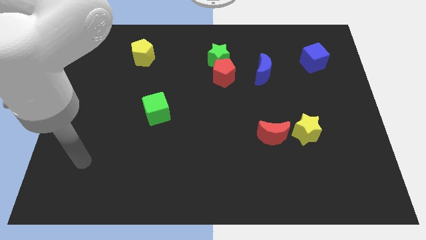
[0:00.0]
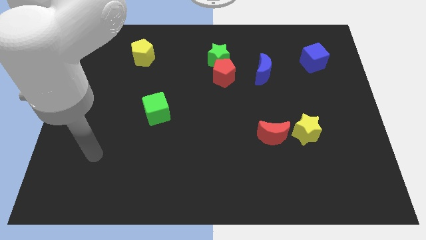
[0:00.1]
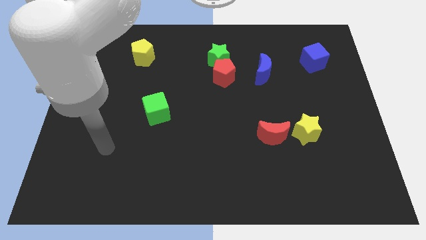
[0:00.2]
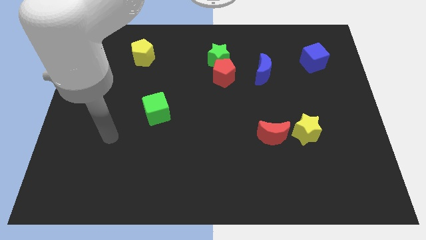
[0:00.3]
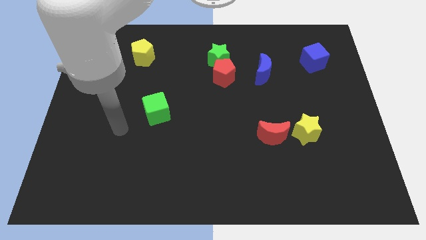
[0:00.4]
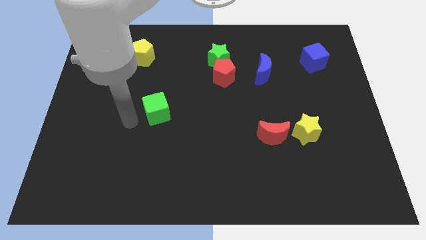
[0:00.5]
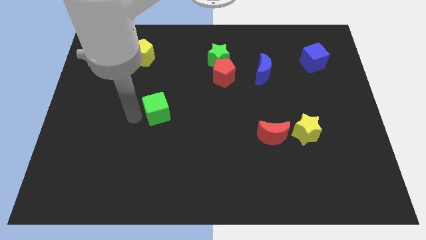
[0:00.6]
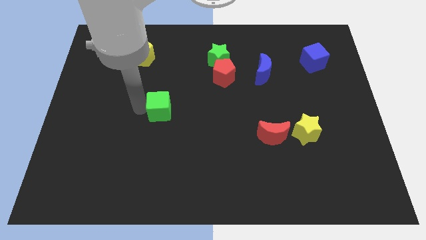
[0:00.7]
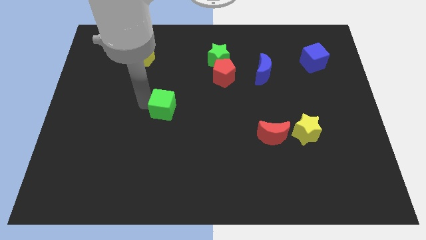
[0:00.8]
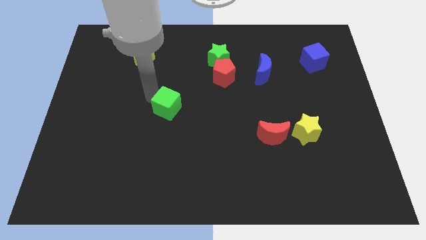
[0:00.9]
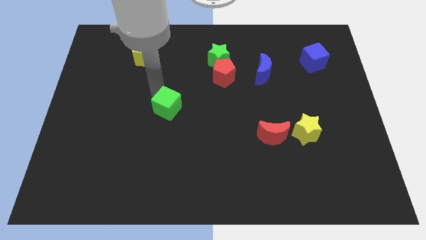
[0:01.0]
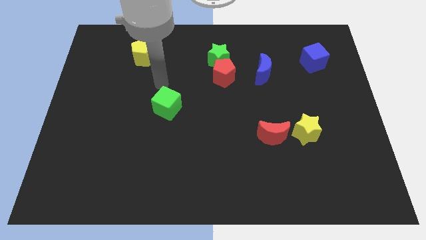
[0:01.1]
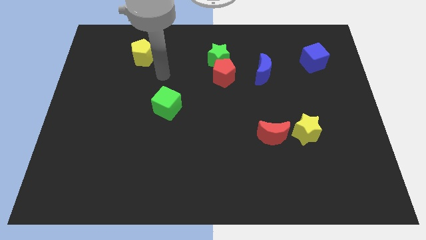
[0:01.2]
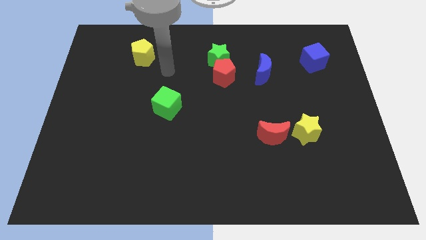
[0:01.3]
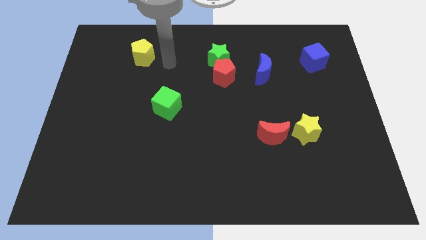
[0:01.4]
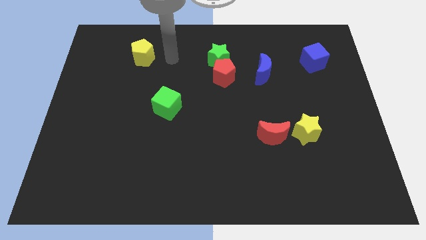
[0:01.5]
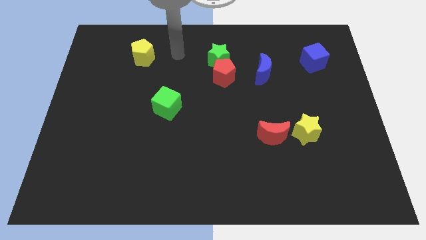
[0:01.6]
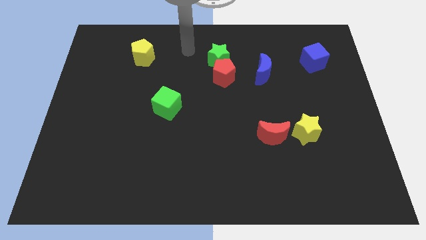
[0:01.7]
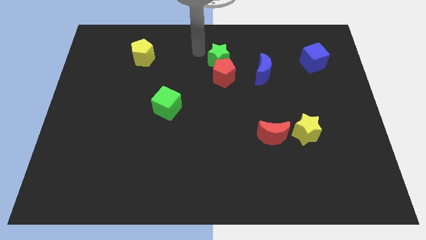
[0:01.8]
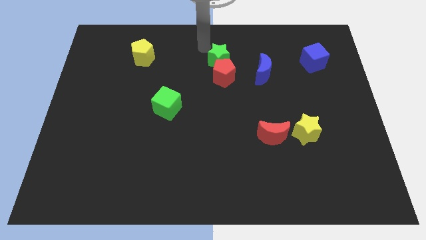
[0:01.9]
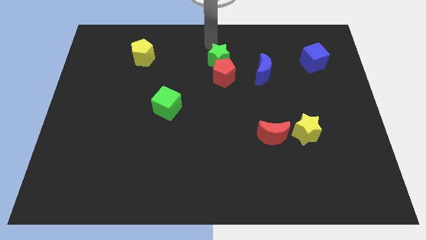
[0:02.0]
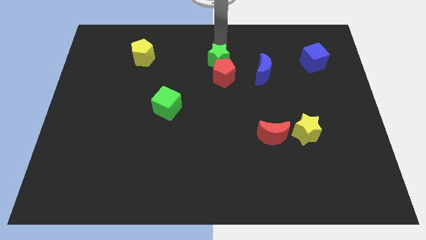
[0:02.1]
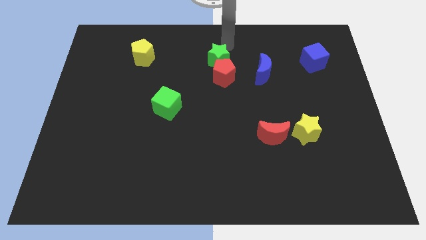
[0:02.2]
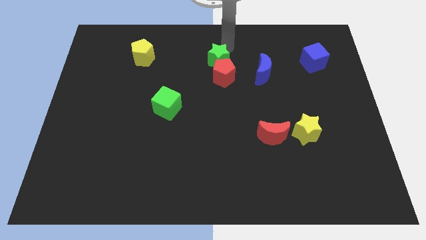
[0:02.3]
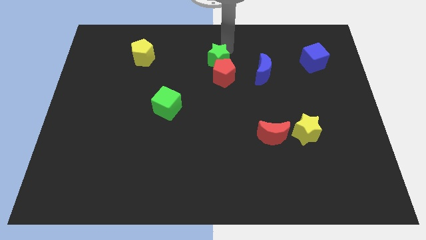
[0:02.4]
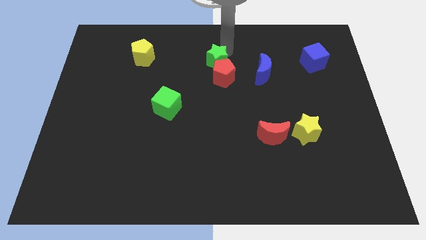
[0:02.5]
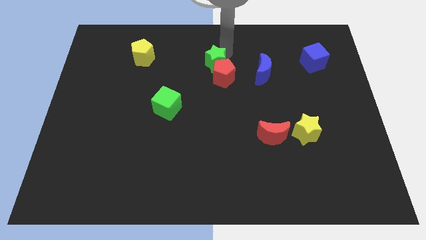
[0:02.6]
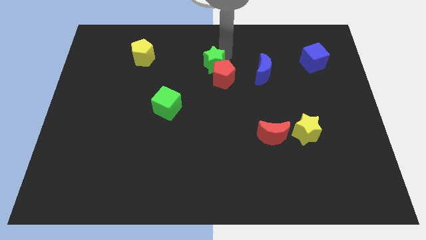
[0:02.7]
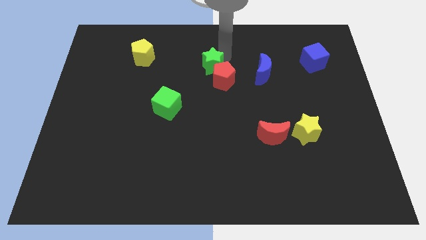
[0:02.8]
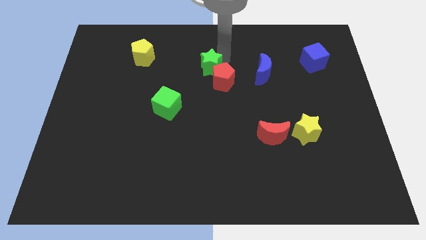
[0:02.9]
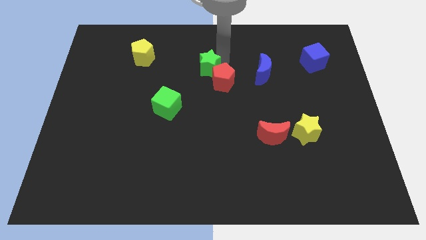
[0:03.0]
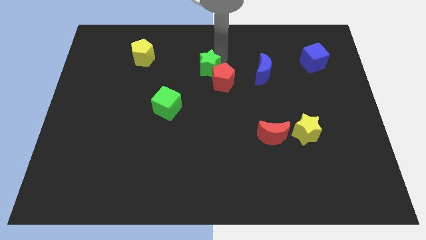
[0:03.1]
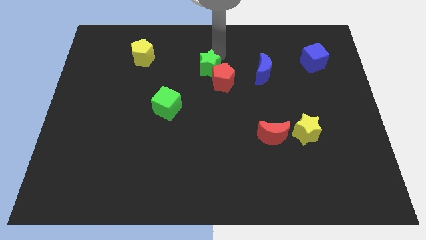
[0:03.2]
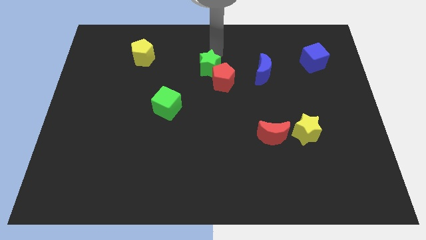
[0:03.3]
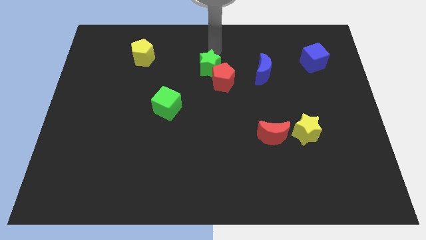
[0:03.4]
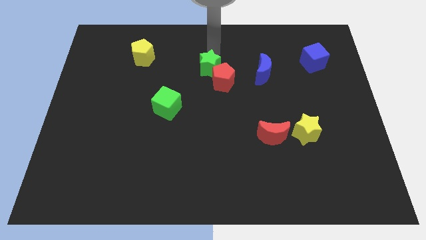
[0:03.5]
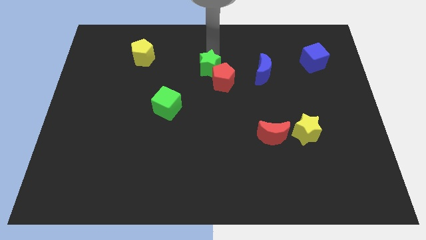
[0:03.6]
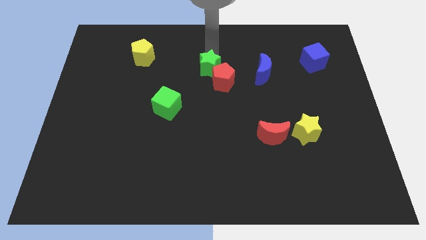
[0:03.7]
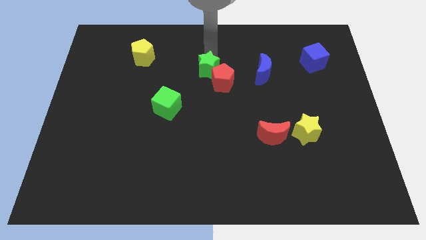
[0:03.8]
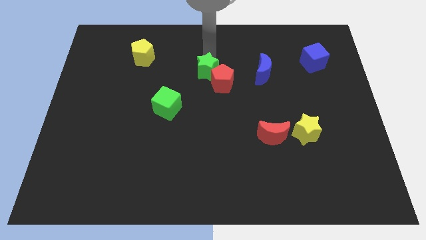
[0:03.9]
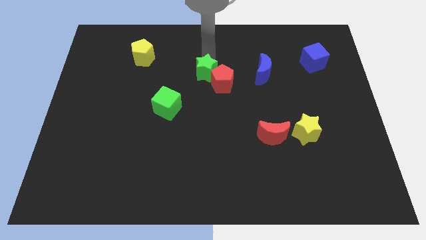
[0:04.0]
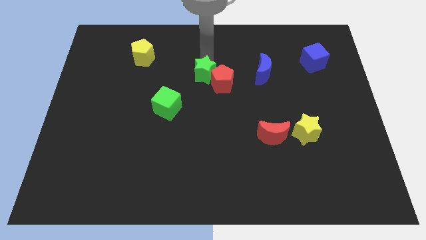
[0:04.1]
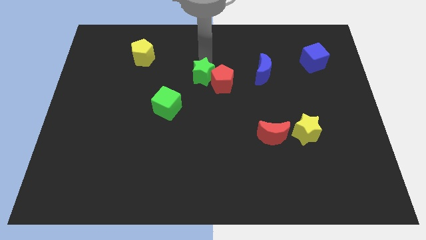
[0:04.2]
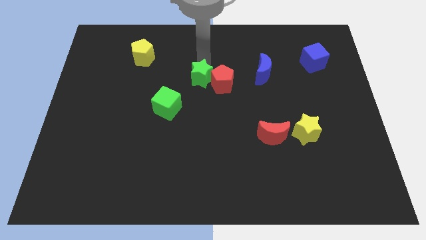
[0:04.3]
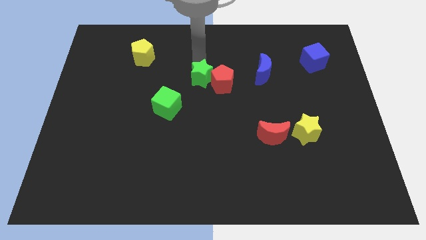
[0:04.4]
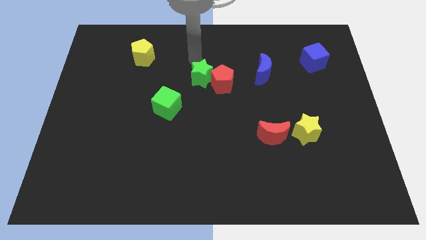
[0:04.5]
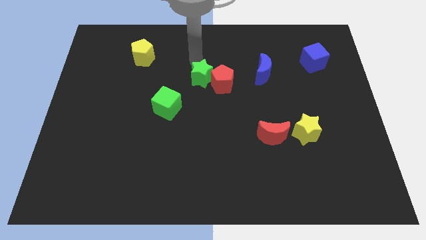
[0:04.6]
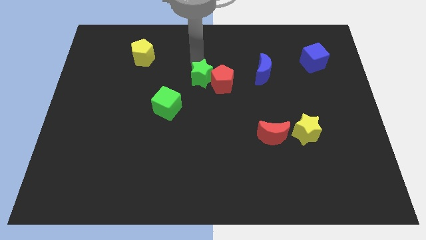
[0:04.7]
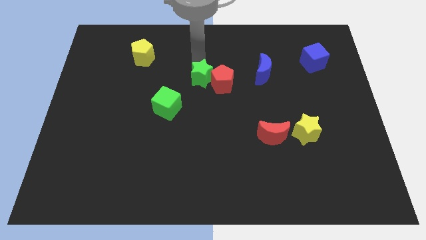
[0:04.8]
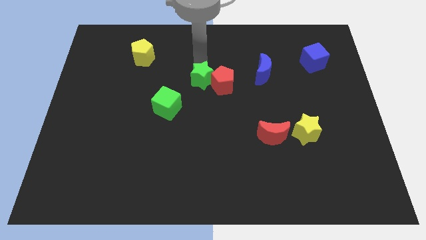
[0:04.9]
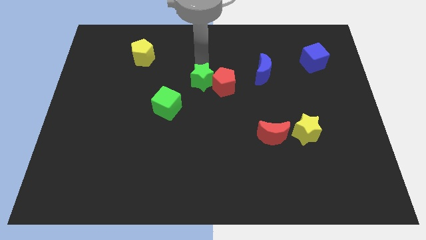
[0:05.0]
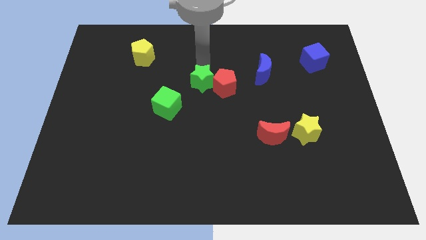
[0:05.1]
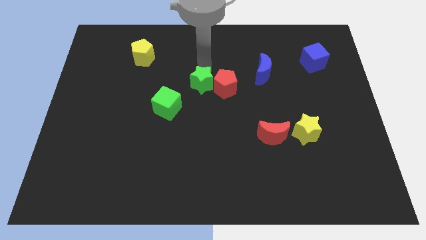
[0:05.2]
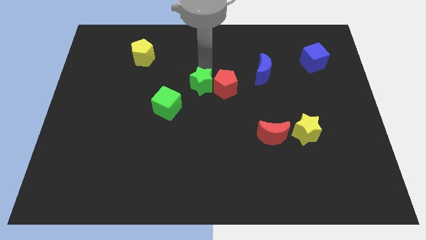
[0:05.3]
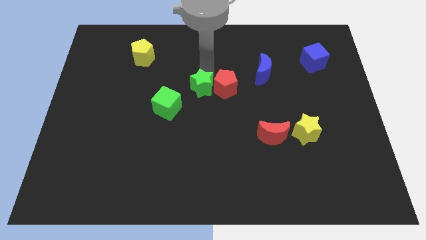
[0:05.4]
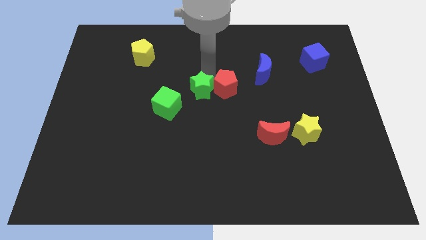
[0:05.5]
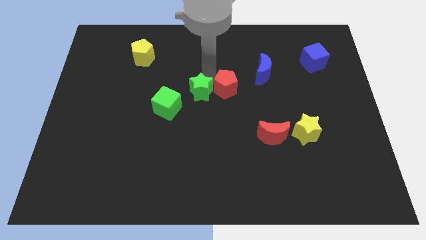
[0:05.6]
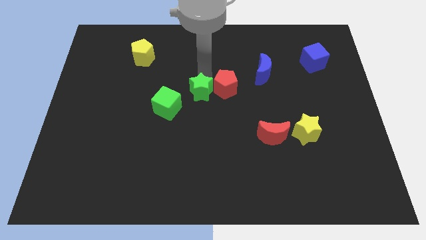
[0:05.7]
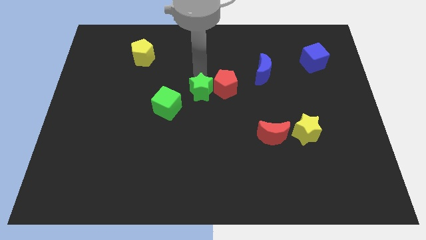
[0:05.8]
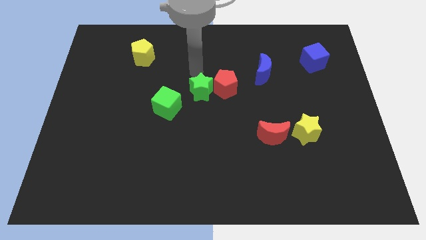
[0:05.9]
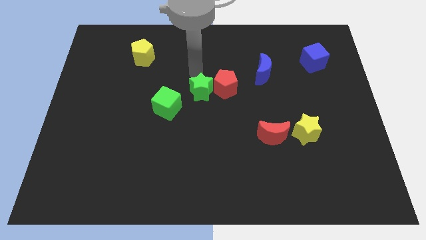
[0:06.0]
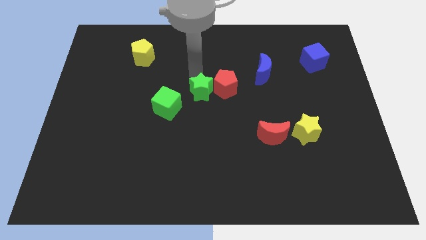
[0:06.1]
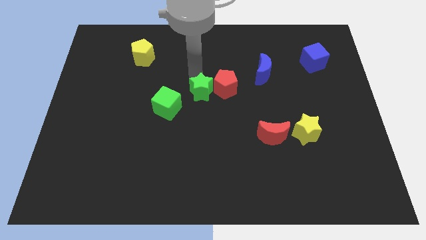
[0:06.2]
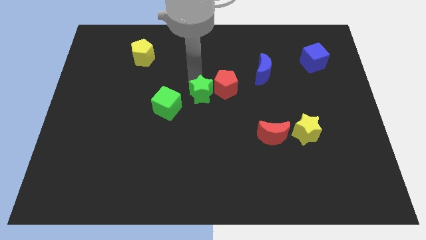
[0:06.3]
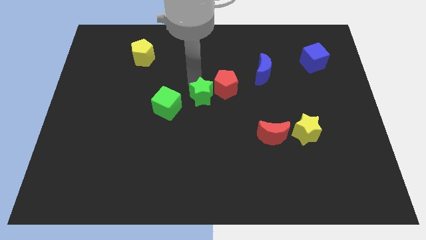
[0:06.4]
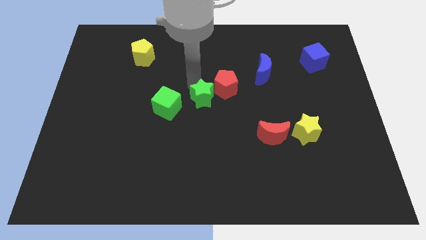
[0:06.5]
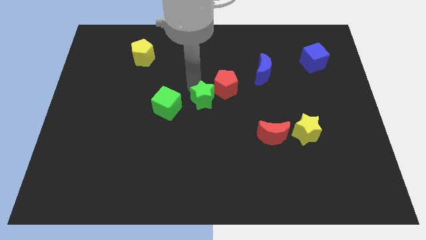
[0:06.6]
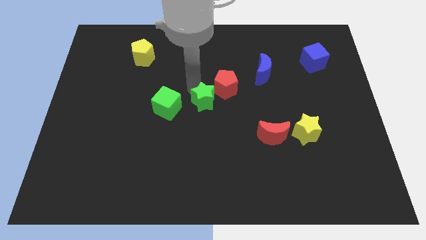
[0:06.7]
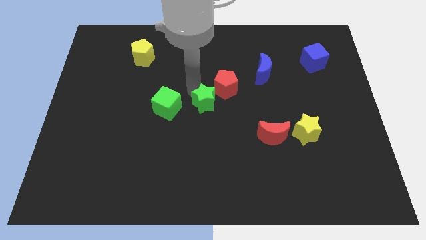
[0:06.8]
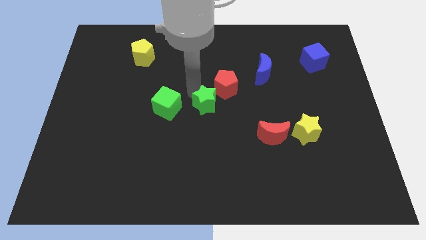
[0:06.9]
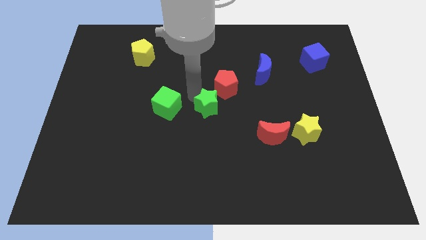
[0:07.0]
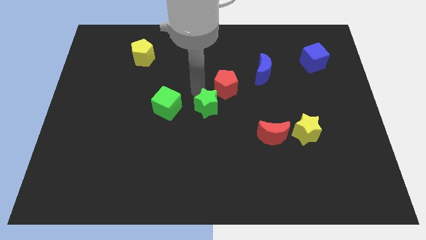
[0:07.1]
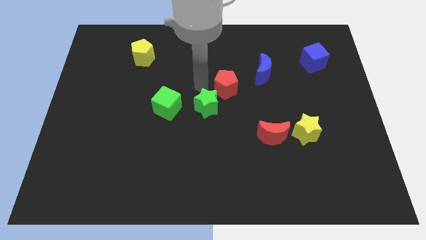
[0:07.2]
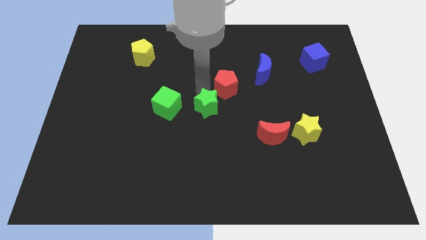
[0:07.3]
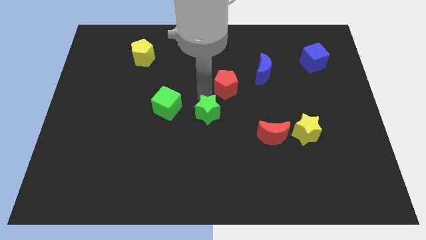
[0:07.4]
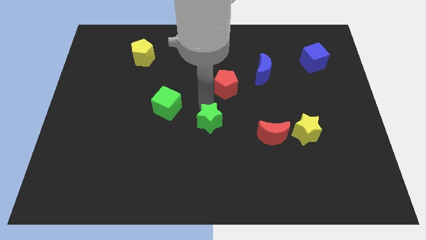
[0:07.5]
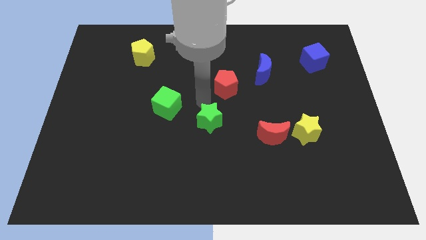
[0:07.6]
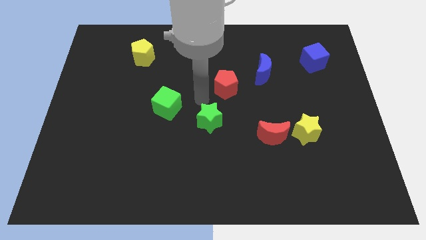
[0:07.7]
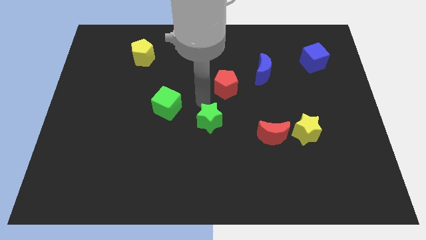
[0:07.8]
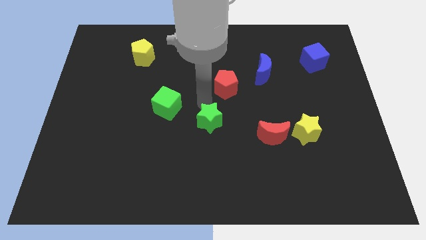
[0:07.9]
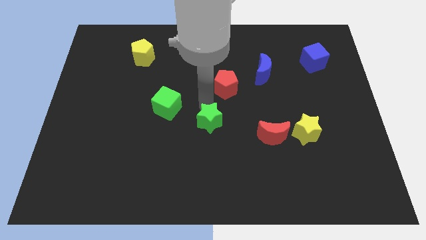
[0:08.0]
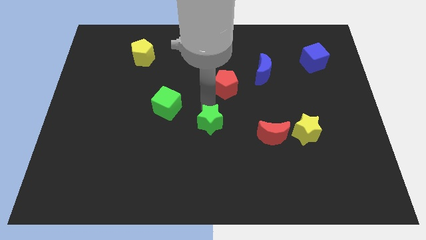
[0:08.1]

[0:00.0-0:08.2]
push the green star downwards
